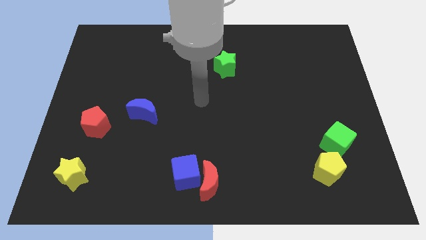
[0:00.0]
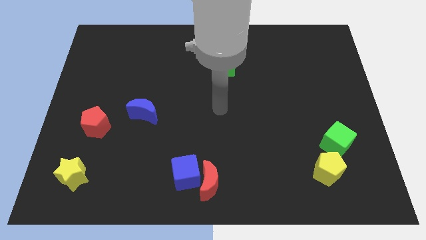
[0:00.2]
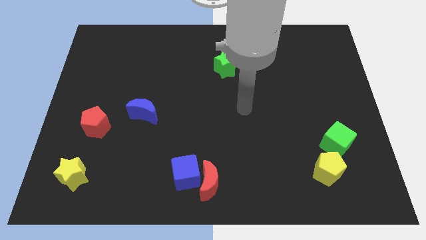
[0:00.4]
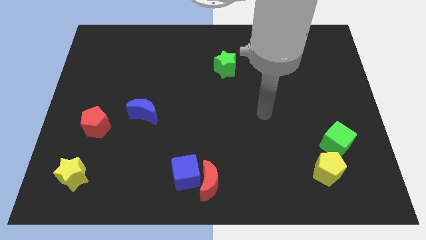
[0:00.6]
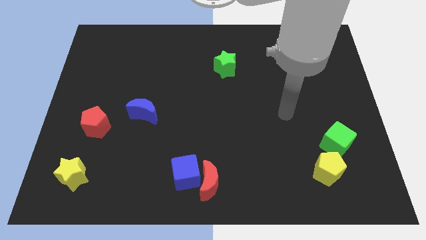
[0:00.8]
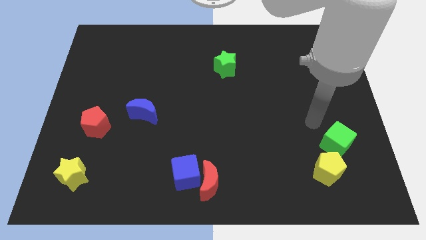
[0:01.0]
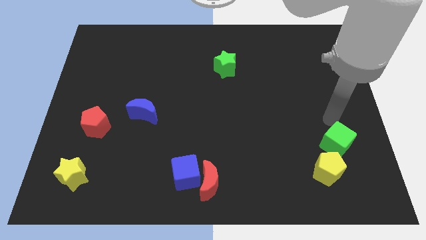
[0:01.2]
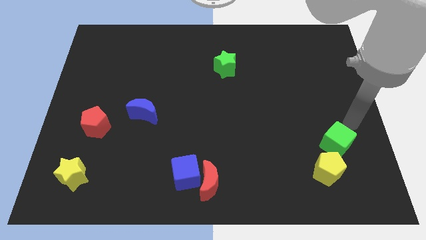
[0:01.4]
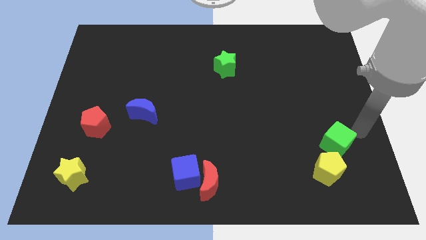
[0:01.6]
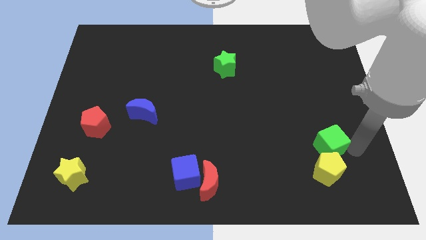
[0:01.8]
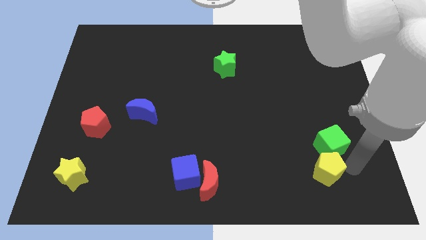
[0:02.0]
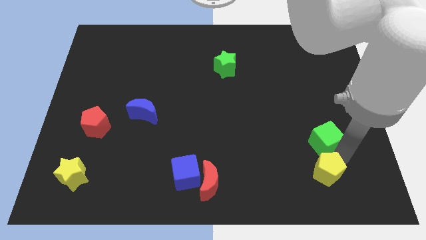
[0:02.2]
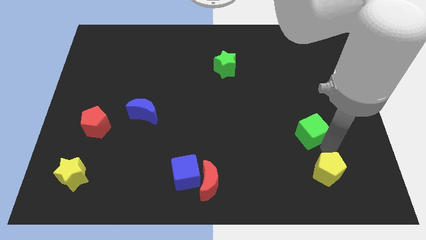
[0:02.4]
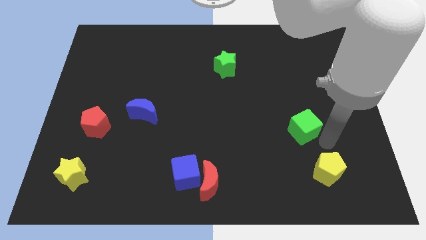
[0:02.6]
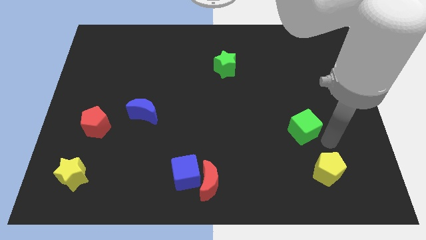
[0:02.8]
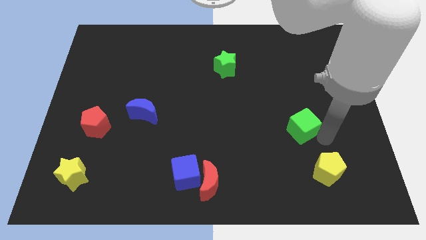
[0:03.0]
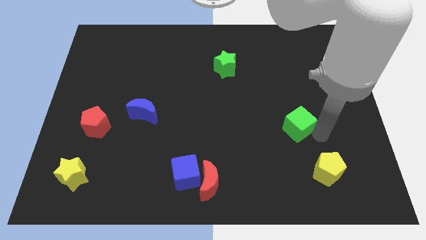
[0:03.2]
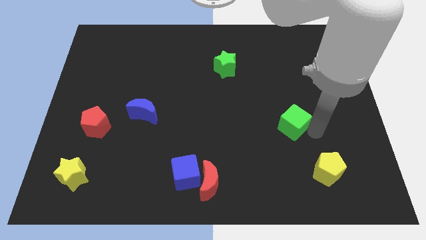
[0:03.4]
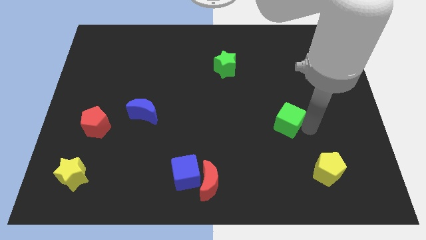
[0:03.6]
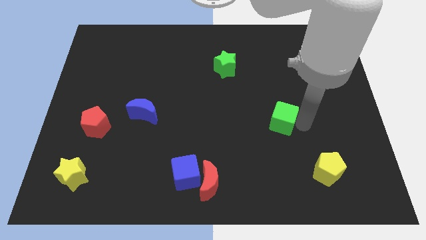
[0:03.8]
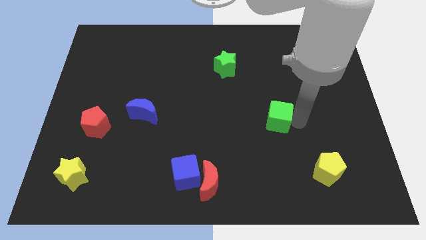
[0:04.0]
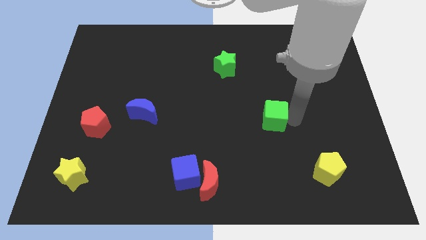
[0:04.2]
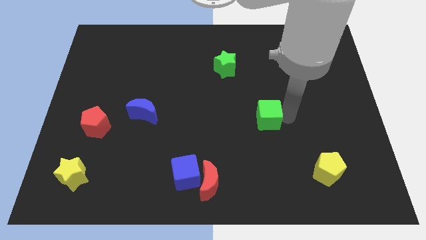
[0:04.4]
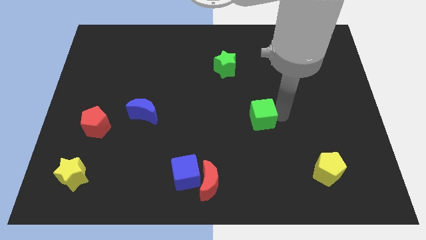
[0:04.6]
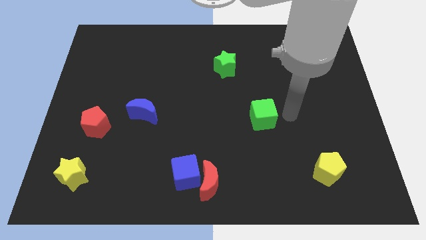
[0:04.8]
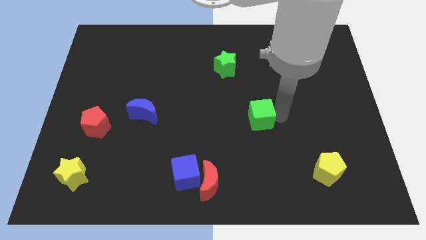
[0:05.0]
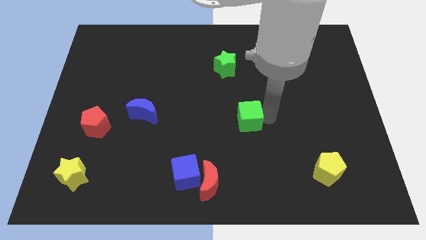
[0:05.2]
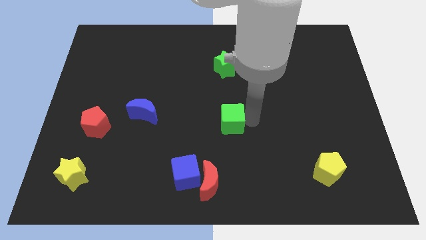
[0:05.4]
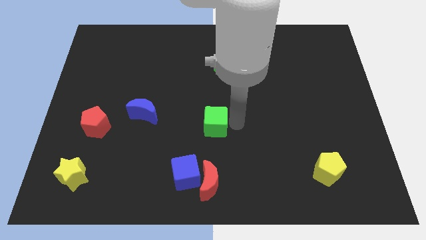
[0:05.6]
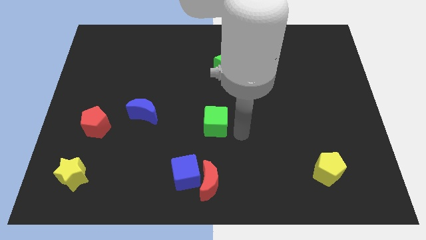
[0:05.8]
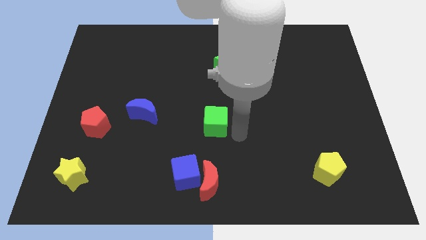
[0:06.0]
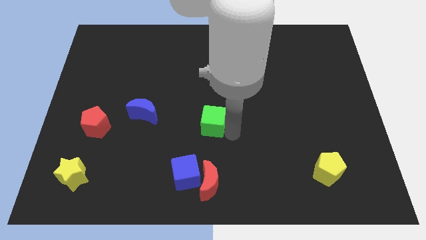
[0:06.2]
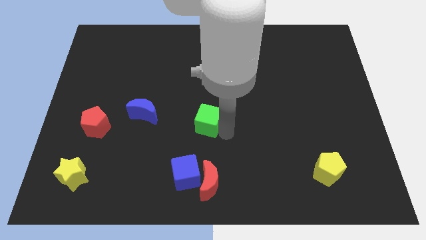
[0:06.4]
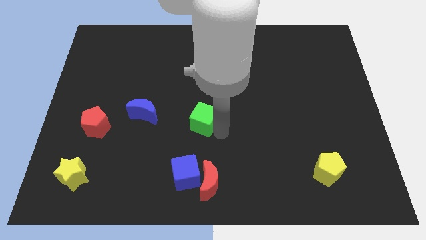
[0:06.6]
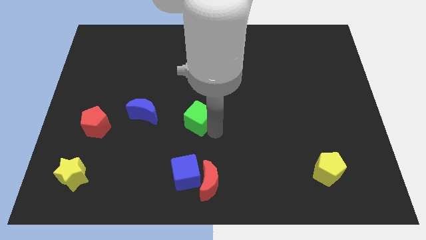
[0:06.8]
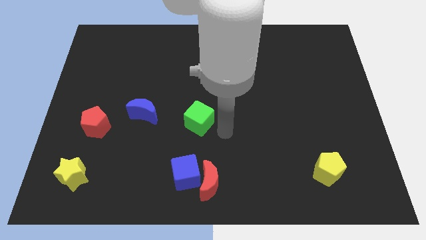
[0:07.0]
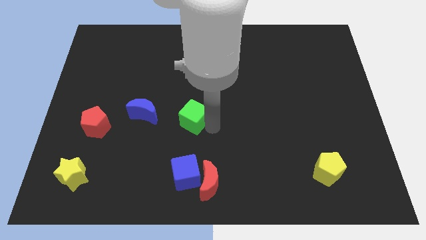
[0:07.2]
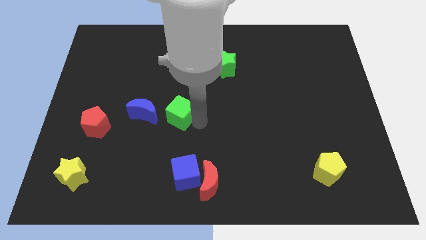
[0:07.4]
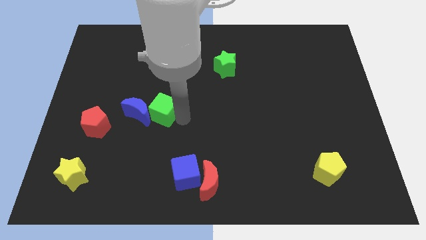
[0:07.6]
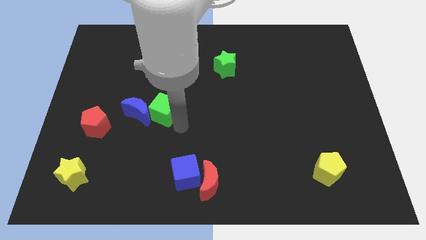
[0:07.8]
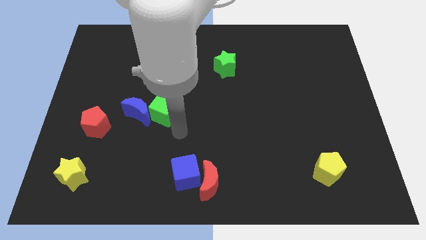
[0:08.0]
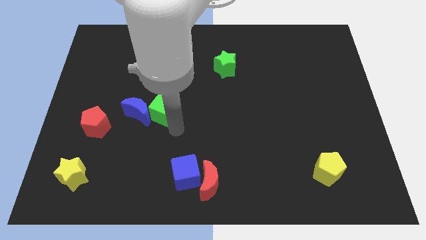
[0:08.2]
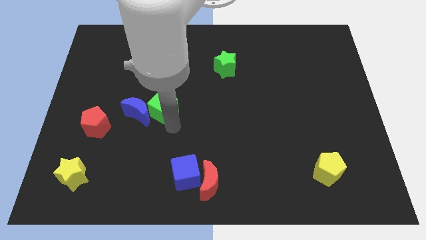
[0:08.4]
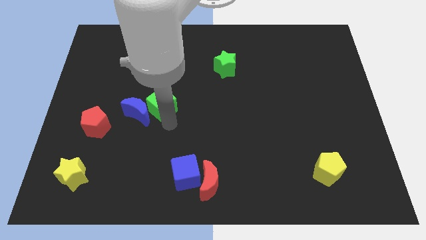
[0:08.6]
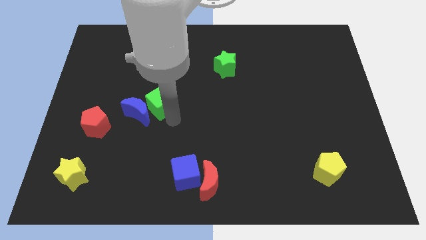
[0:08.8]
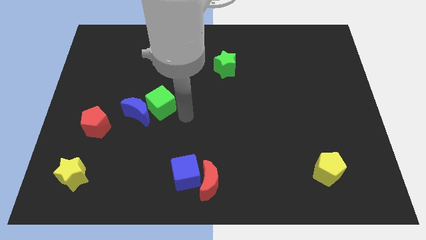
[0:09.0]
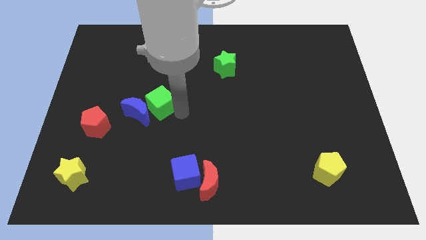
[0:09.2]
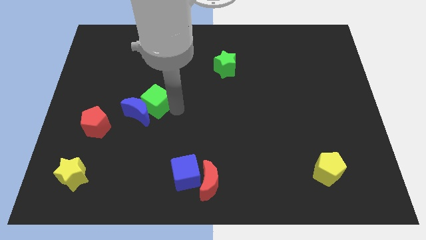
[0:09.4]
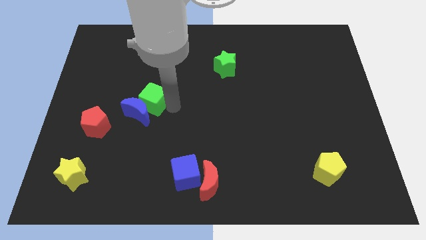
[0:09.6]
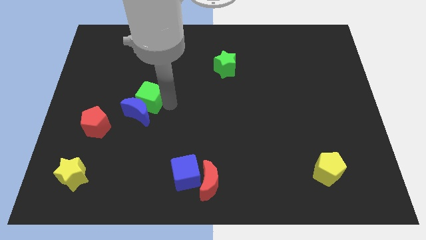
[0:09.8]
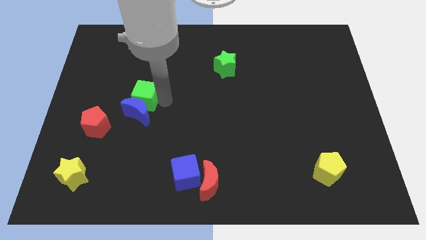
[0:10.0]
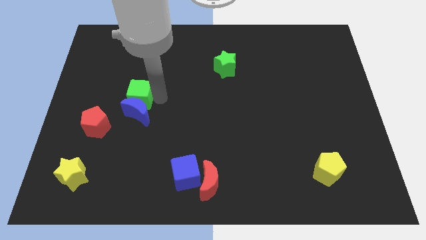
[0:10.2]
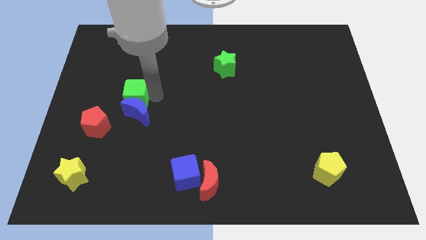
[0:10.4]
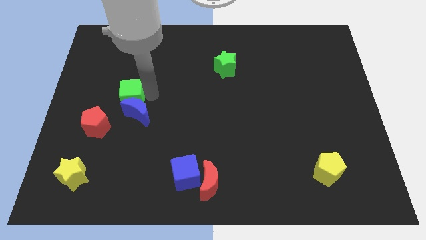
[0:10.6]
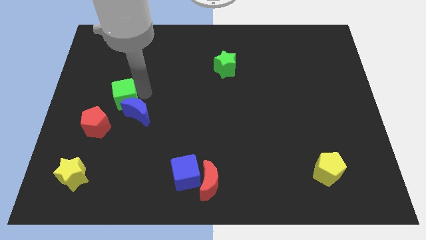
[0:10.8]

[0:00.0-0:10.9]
put the green cube just left of the blue moon

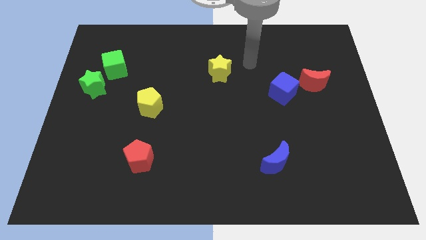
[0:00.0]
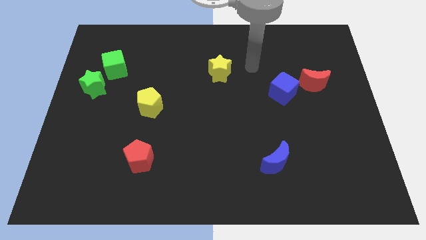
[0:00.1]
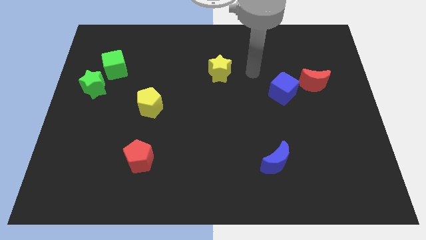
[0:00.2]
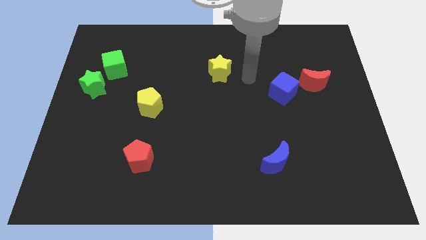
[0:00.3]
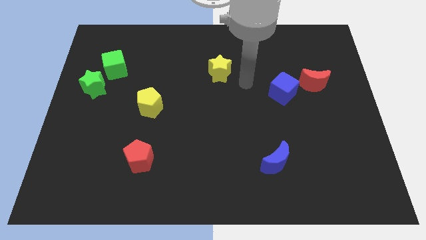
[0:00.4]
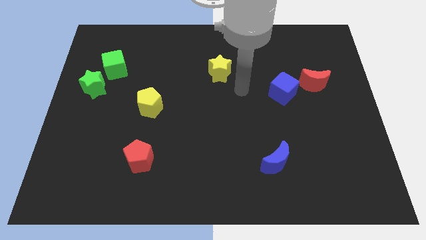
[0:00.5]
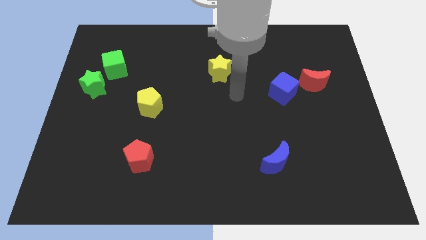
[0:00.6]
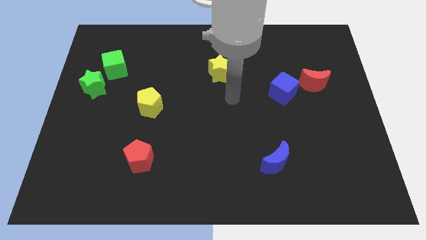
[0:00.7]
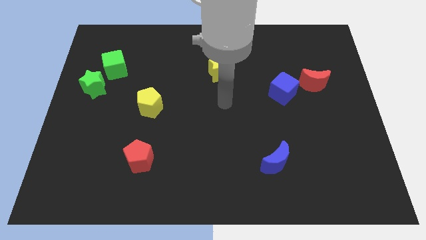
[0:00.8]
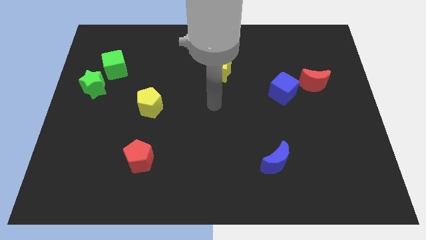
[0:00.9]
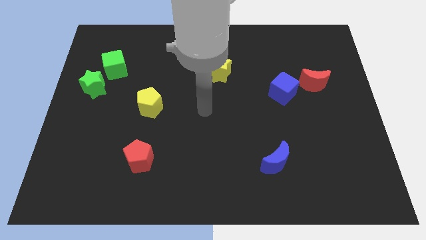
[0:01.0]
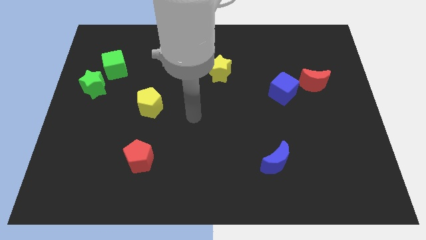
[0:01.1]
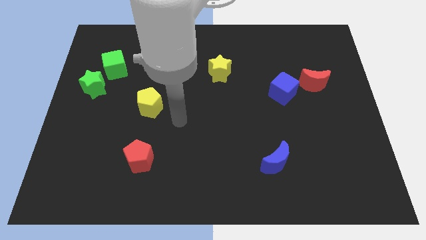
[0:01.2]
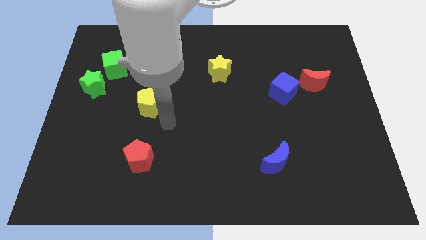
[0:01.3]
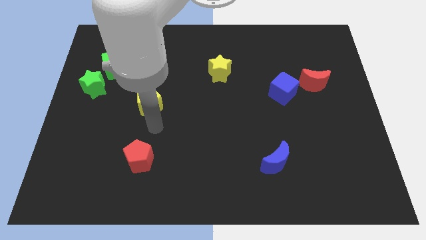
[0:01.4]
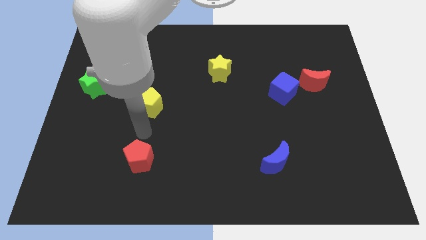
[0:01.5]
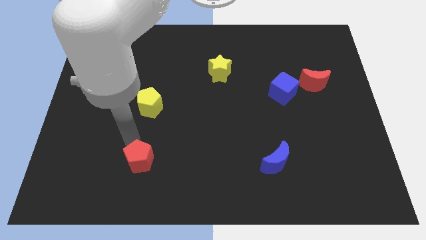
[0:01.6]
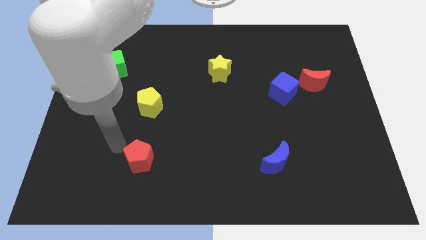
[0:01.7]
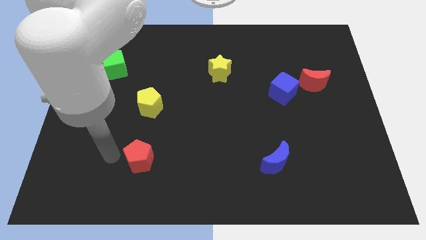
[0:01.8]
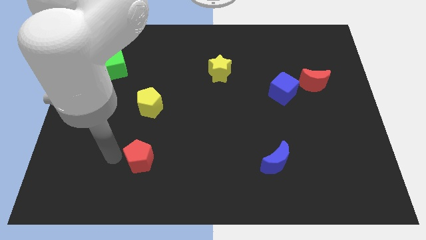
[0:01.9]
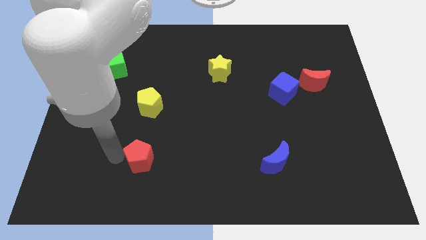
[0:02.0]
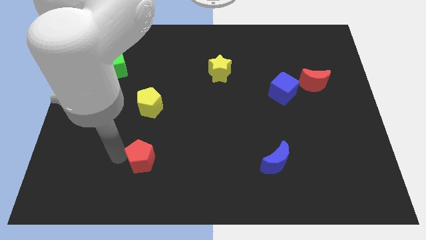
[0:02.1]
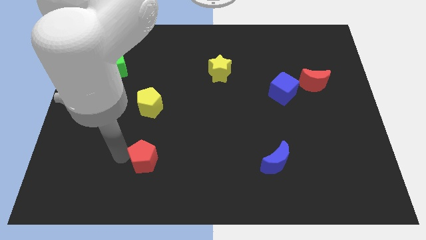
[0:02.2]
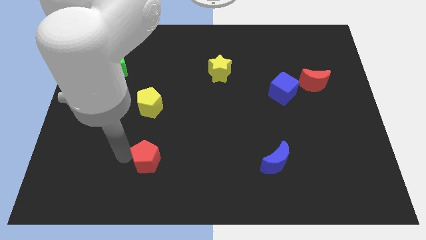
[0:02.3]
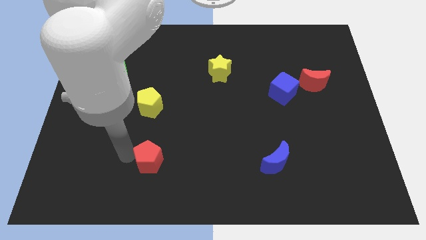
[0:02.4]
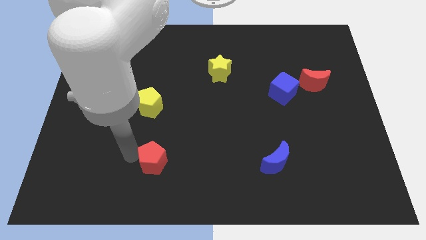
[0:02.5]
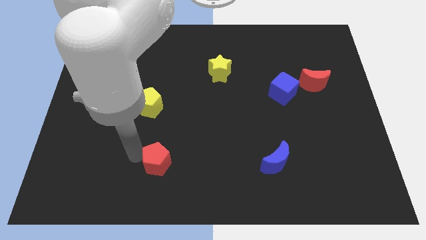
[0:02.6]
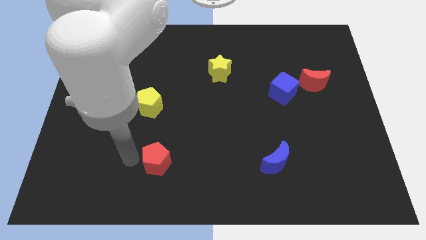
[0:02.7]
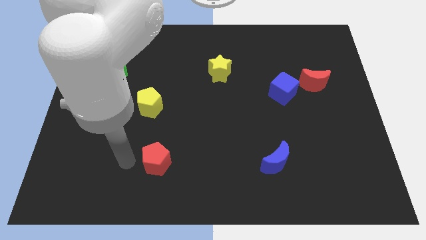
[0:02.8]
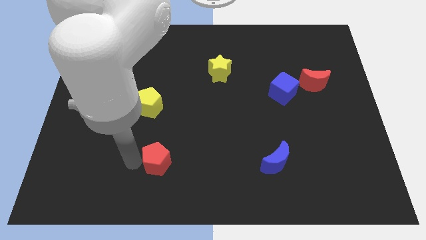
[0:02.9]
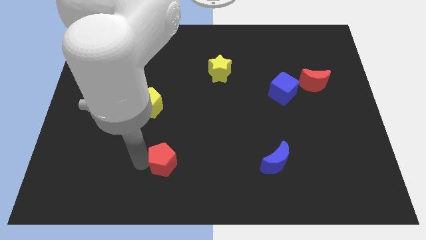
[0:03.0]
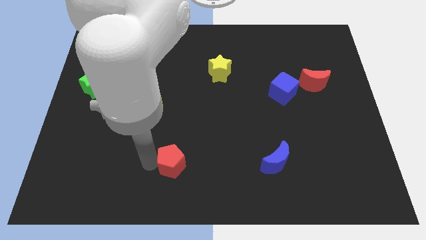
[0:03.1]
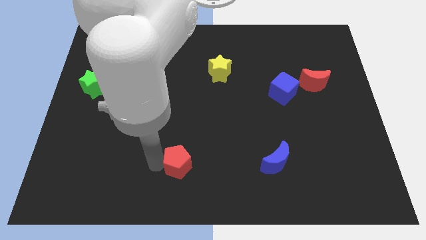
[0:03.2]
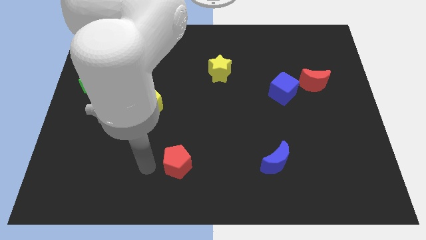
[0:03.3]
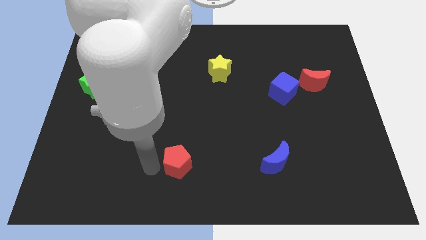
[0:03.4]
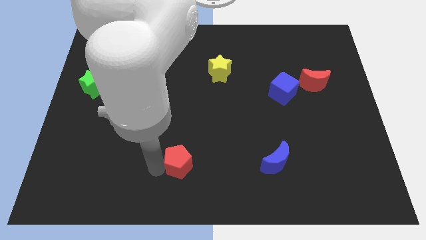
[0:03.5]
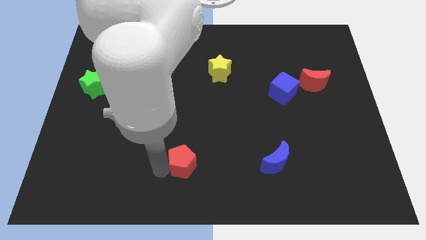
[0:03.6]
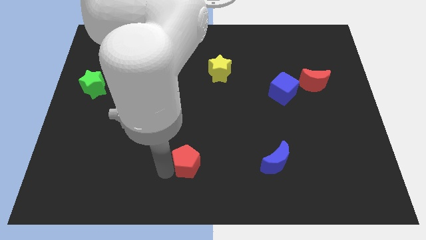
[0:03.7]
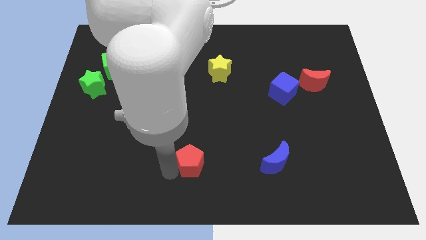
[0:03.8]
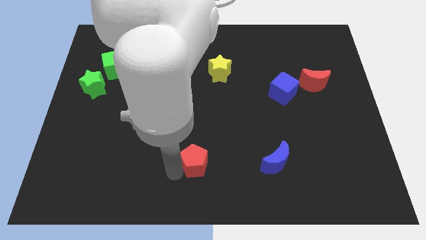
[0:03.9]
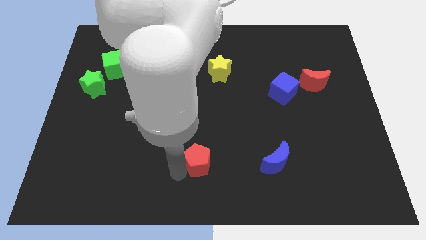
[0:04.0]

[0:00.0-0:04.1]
put the red pentagon to the left of the blue moon
